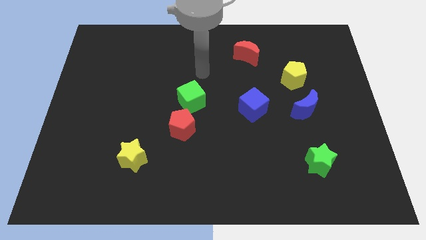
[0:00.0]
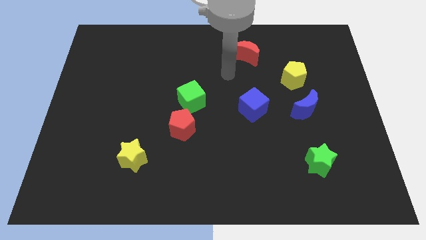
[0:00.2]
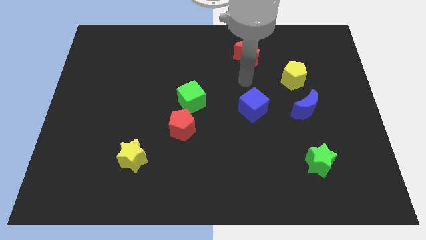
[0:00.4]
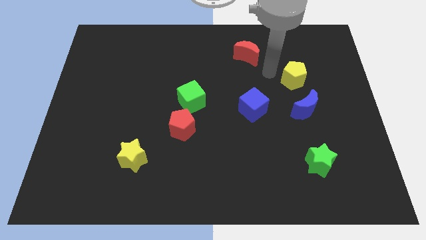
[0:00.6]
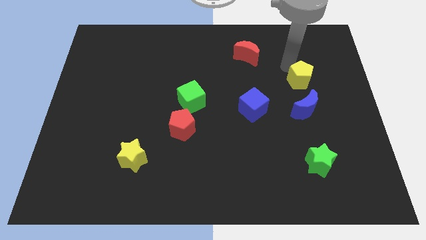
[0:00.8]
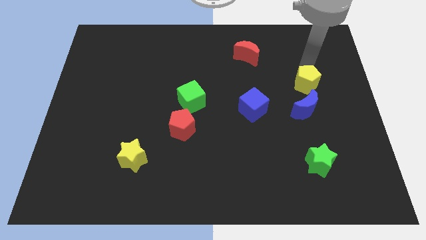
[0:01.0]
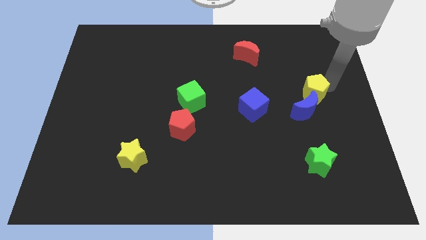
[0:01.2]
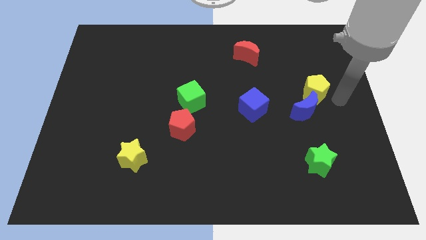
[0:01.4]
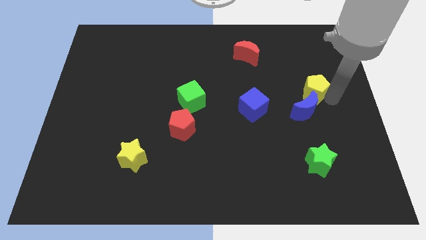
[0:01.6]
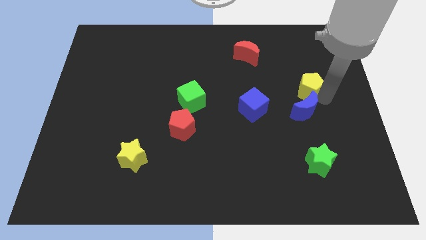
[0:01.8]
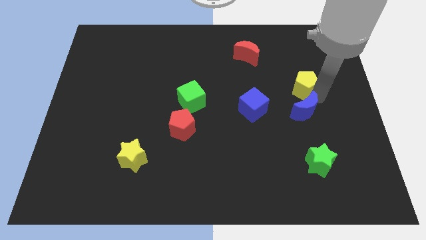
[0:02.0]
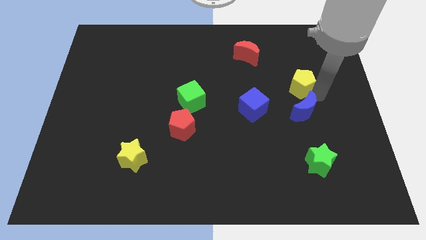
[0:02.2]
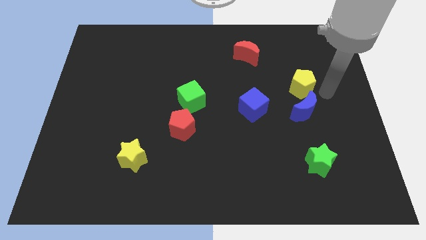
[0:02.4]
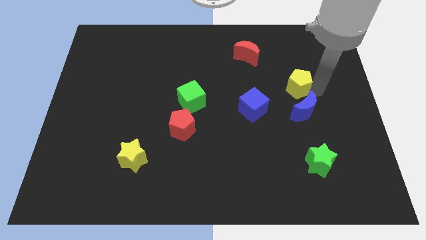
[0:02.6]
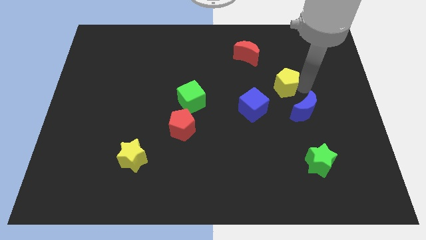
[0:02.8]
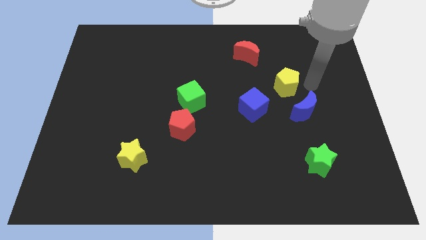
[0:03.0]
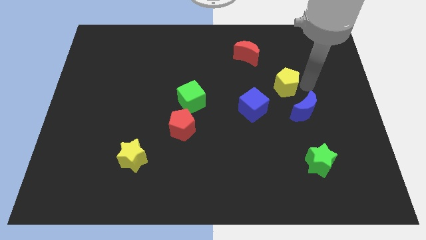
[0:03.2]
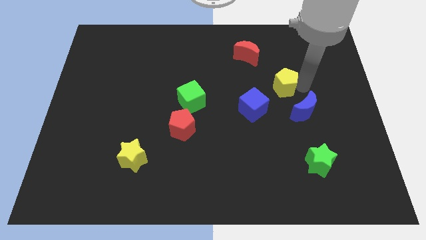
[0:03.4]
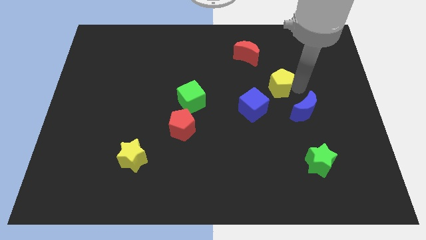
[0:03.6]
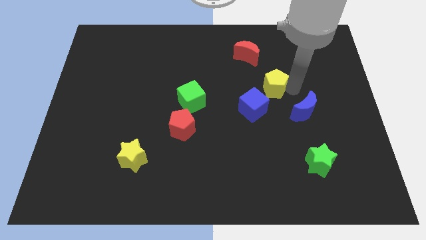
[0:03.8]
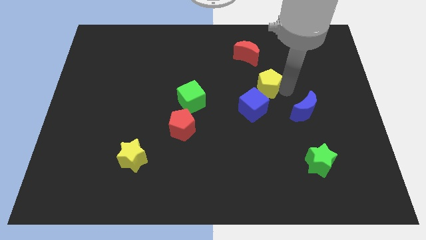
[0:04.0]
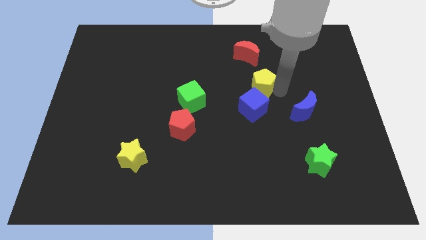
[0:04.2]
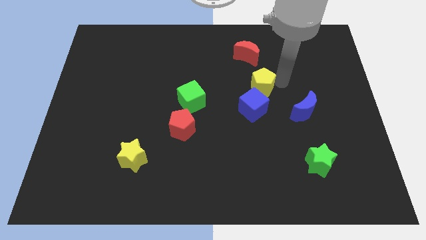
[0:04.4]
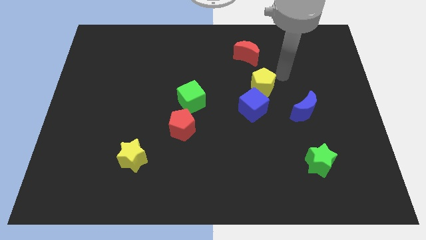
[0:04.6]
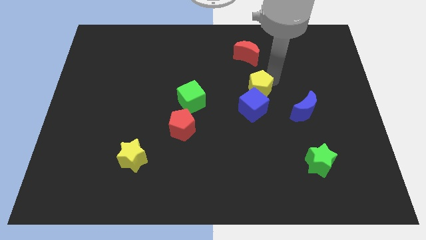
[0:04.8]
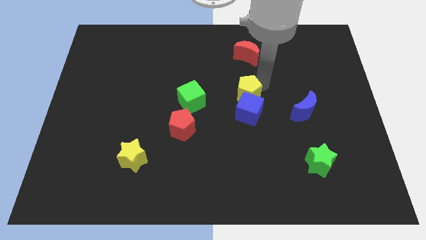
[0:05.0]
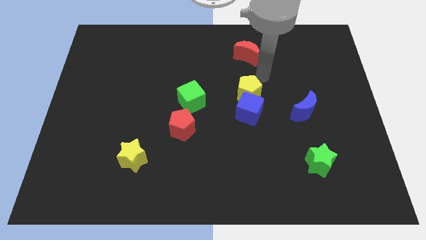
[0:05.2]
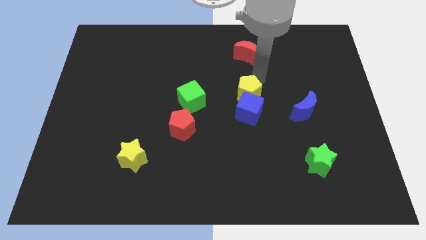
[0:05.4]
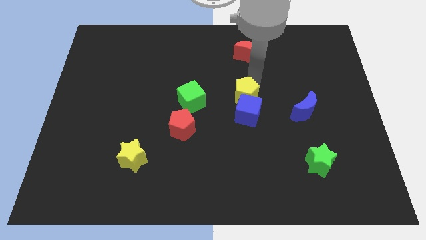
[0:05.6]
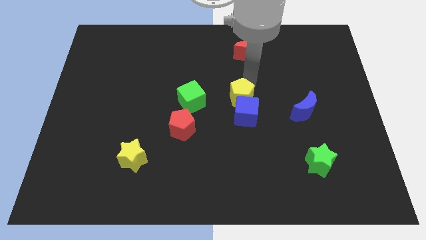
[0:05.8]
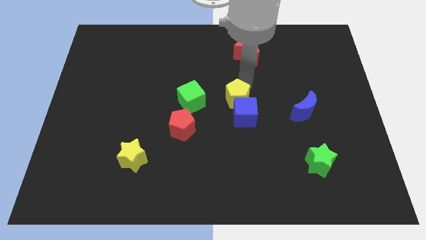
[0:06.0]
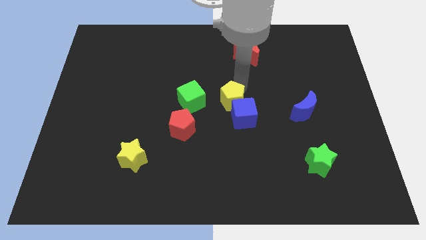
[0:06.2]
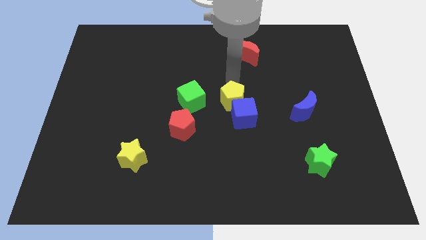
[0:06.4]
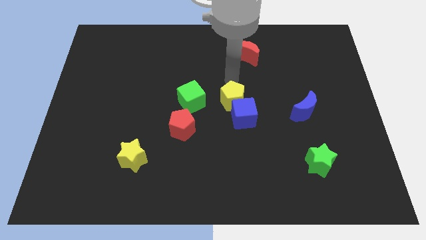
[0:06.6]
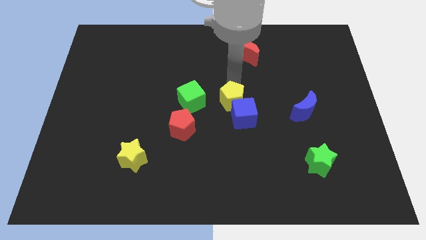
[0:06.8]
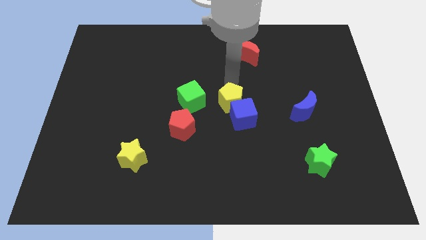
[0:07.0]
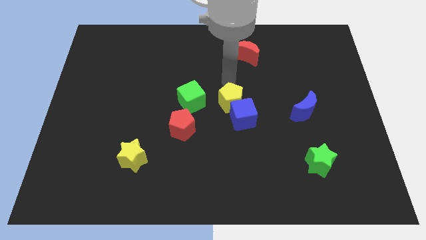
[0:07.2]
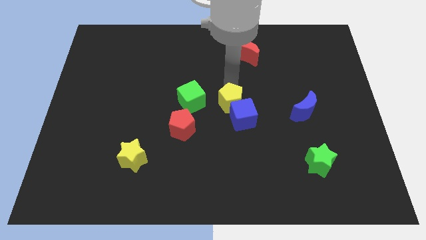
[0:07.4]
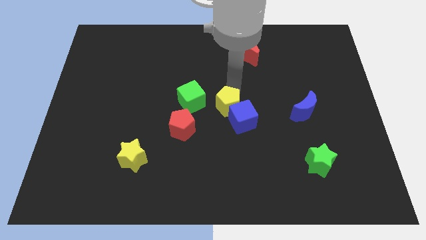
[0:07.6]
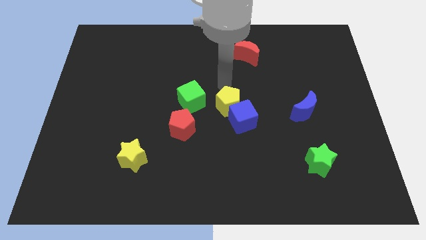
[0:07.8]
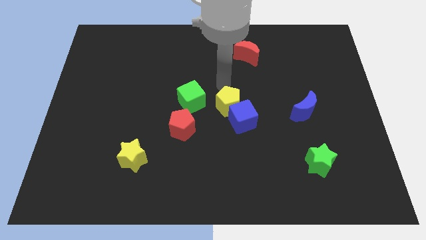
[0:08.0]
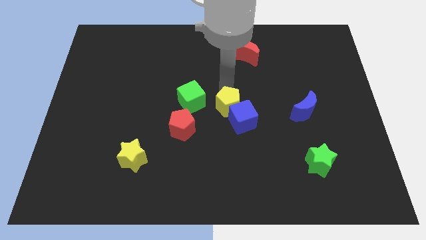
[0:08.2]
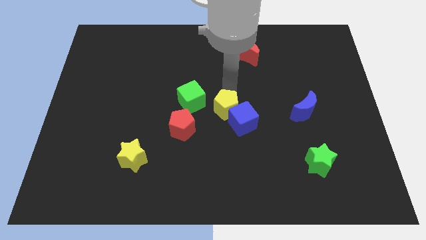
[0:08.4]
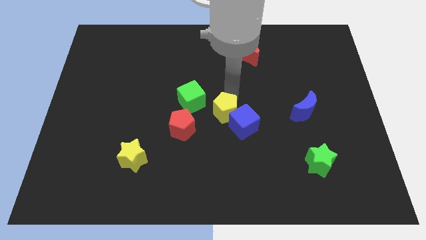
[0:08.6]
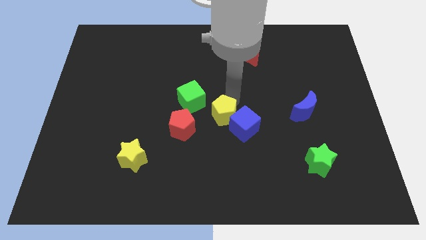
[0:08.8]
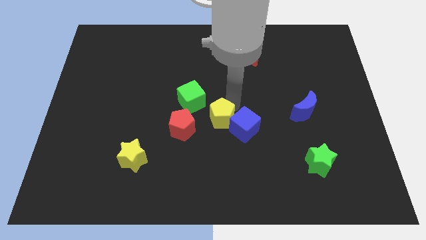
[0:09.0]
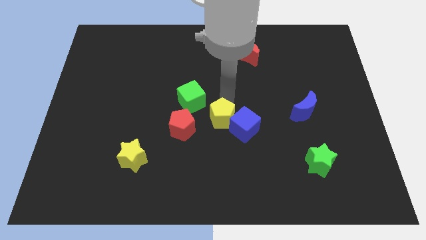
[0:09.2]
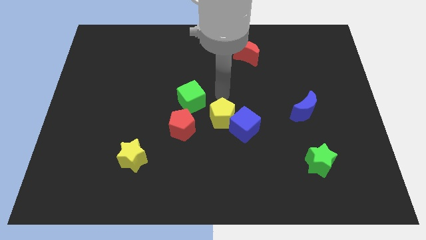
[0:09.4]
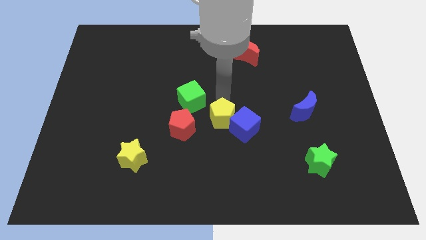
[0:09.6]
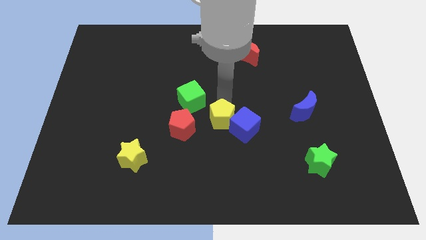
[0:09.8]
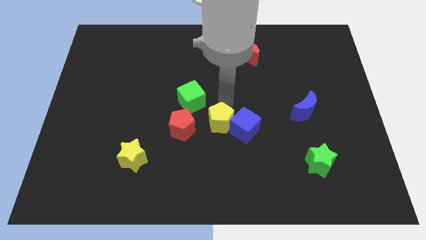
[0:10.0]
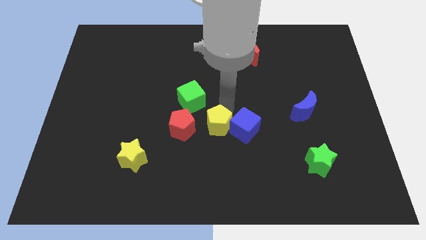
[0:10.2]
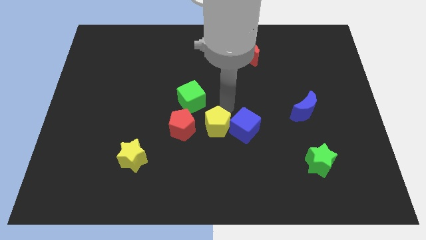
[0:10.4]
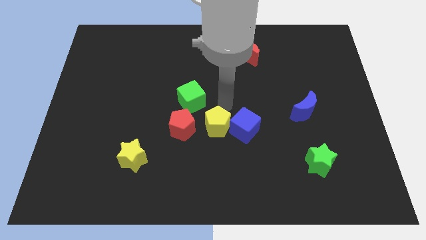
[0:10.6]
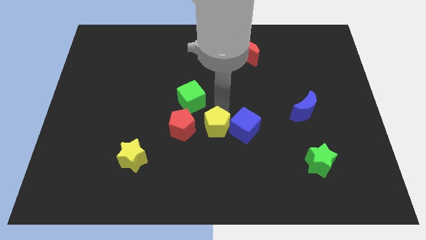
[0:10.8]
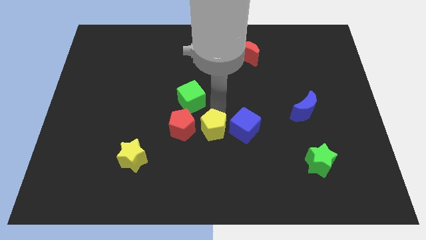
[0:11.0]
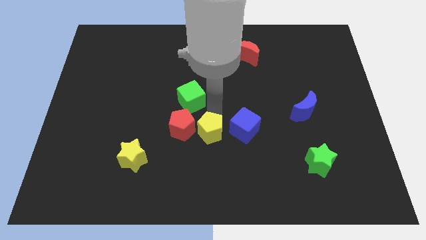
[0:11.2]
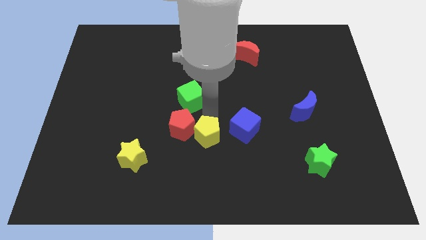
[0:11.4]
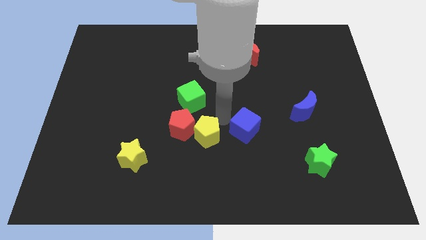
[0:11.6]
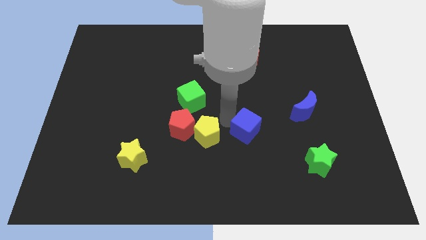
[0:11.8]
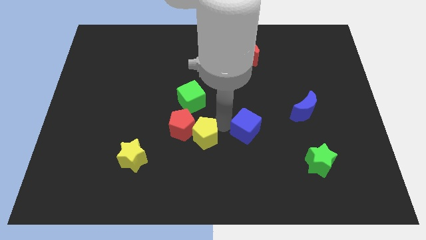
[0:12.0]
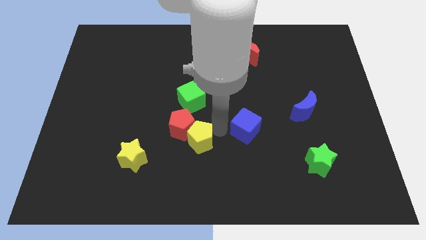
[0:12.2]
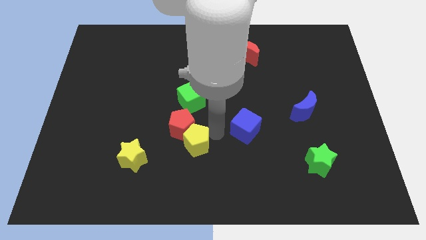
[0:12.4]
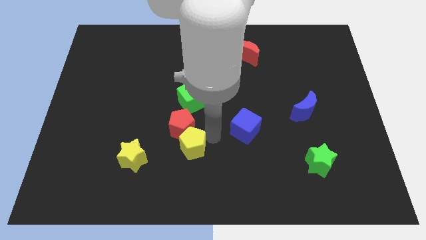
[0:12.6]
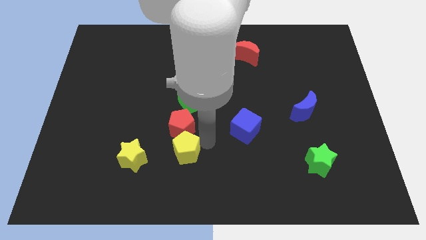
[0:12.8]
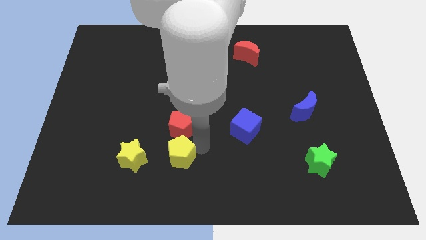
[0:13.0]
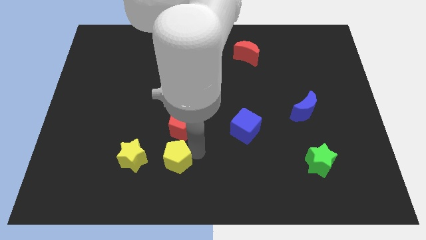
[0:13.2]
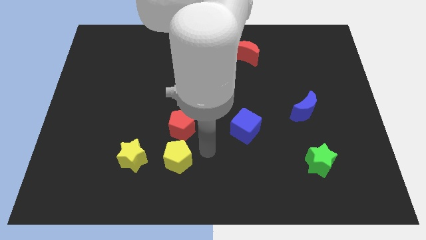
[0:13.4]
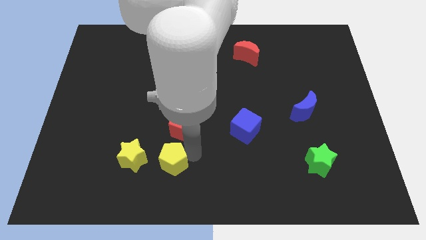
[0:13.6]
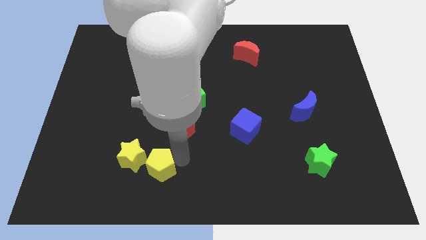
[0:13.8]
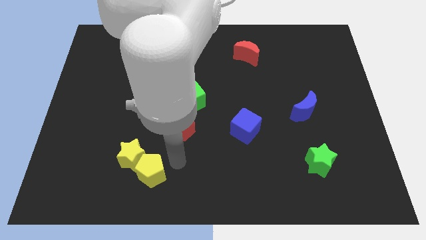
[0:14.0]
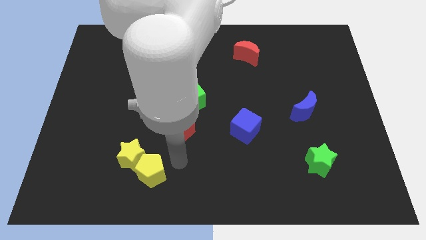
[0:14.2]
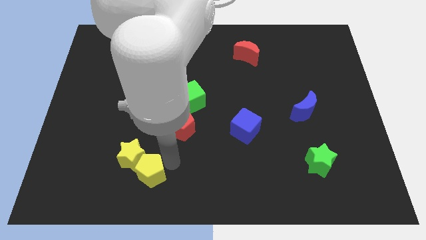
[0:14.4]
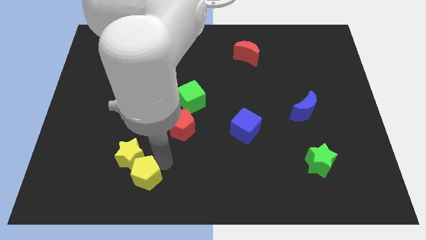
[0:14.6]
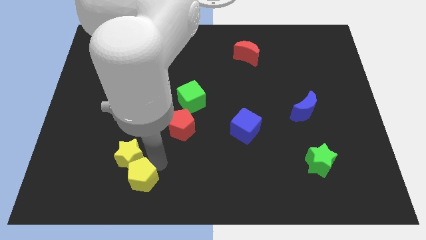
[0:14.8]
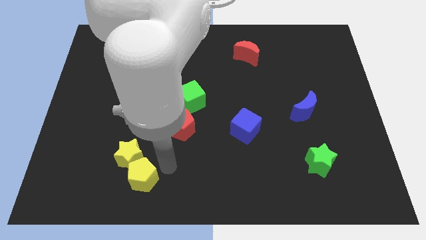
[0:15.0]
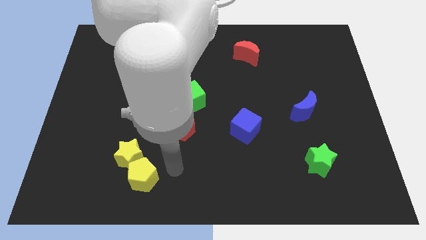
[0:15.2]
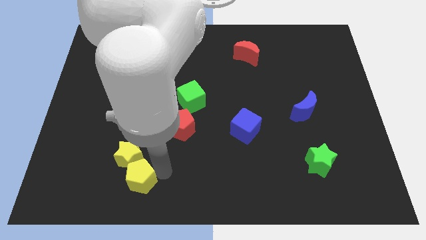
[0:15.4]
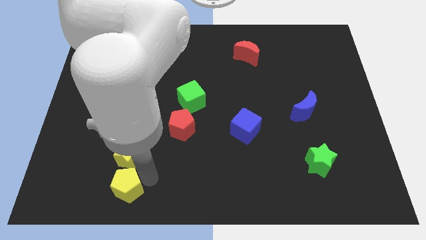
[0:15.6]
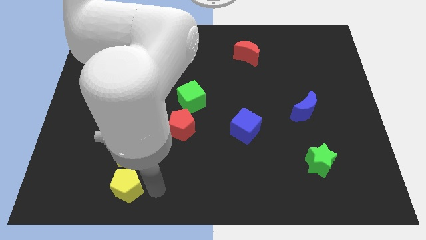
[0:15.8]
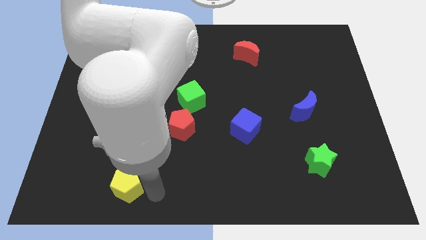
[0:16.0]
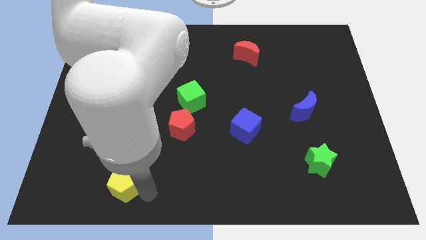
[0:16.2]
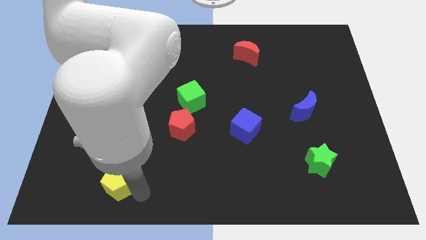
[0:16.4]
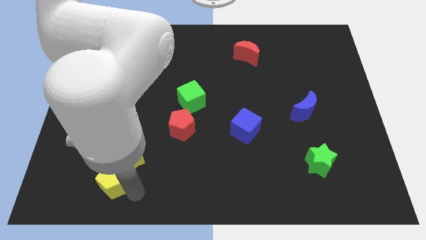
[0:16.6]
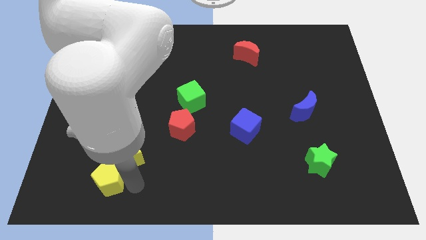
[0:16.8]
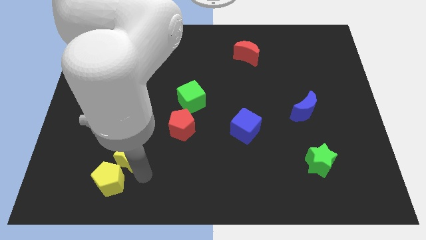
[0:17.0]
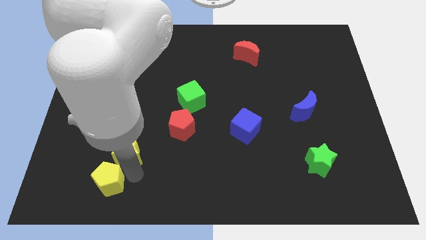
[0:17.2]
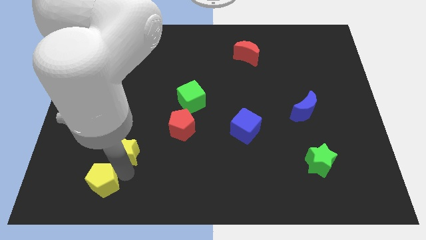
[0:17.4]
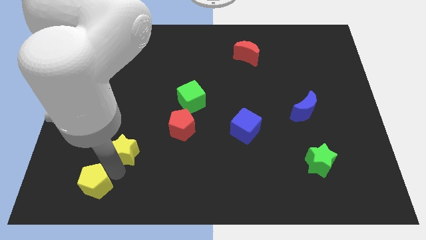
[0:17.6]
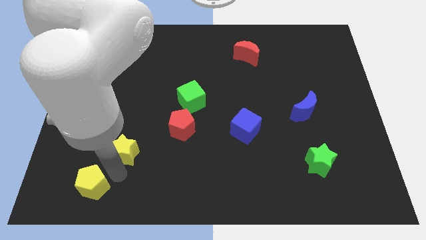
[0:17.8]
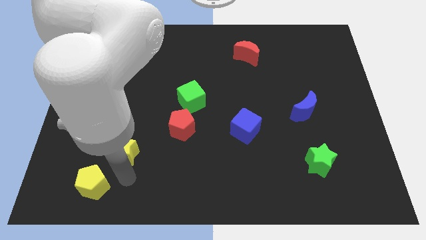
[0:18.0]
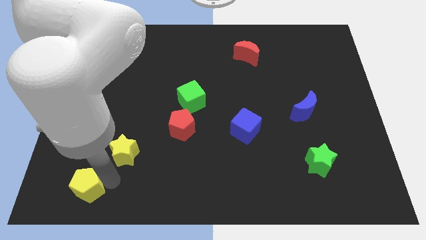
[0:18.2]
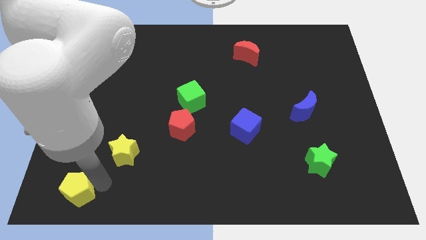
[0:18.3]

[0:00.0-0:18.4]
push the yellow pentagon to the bottom left of the board
